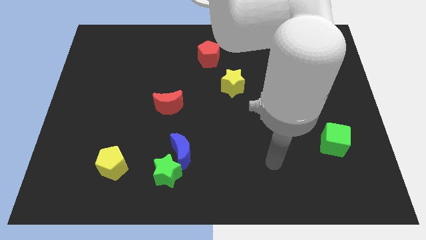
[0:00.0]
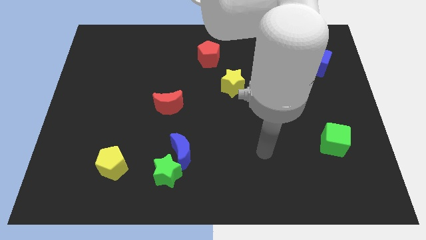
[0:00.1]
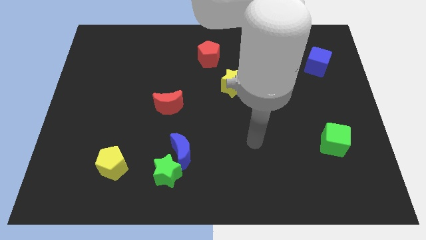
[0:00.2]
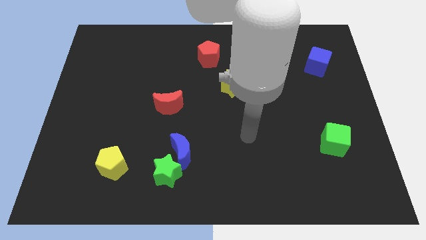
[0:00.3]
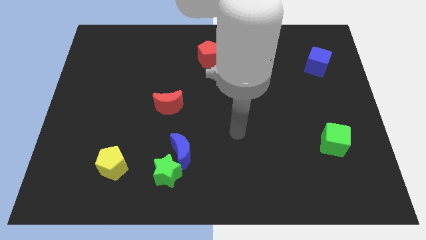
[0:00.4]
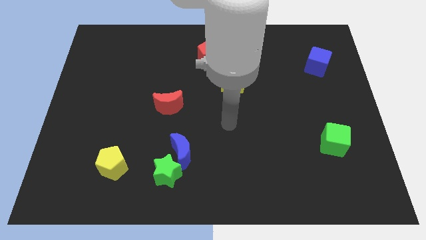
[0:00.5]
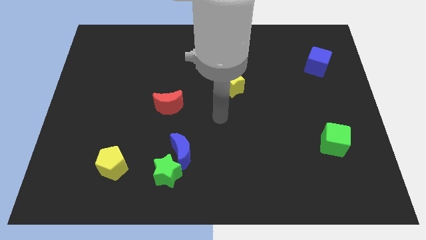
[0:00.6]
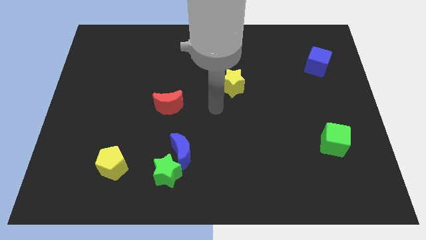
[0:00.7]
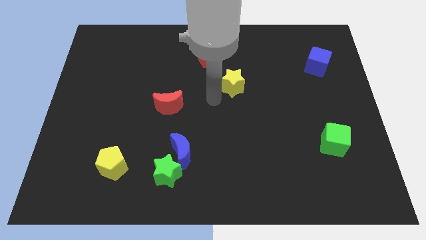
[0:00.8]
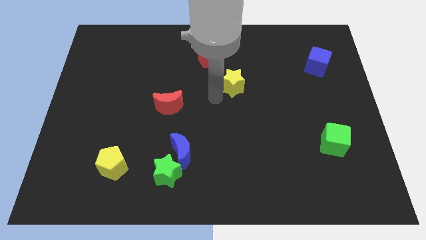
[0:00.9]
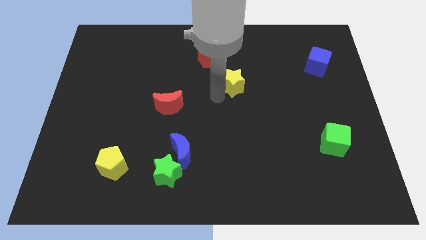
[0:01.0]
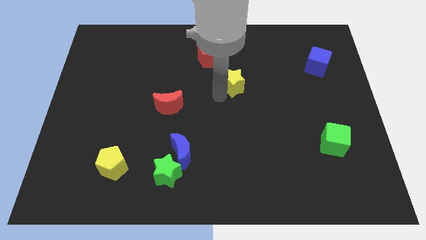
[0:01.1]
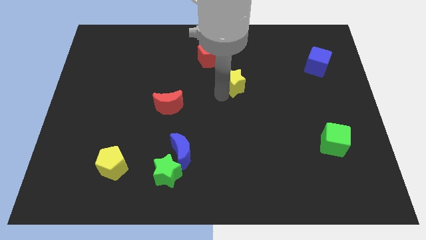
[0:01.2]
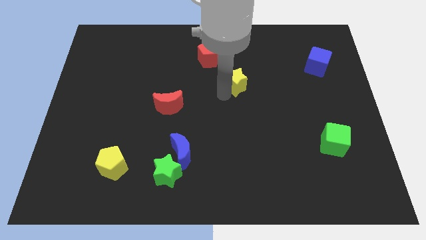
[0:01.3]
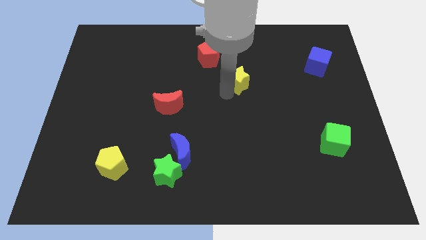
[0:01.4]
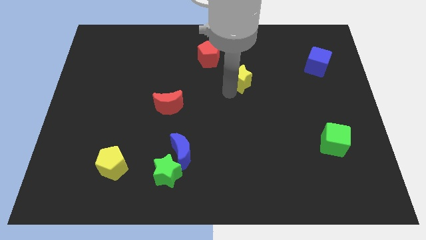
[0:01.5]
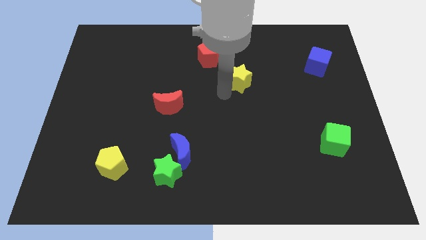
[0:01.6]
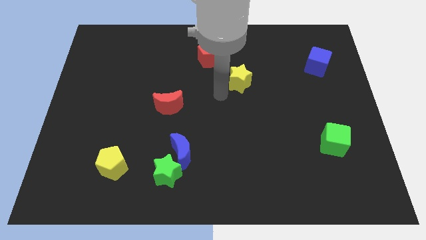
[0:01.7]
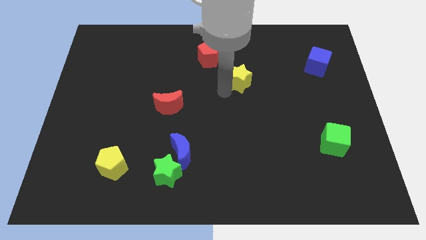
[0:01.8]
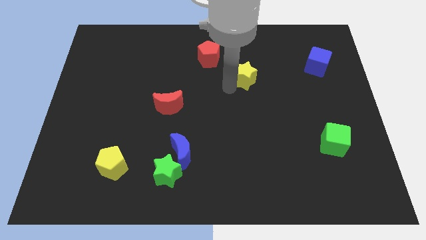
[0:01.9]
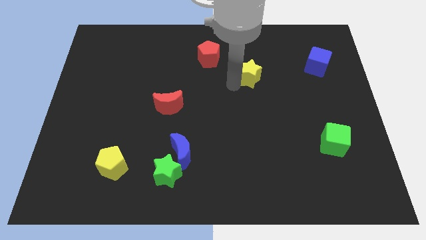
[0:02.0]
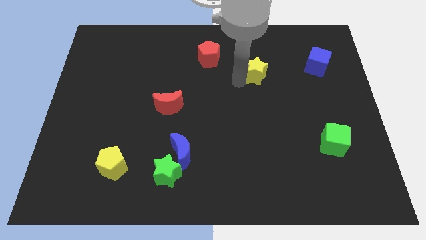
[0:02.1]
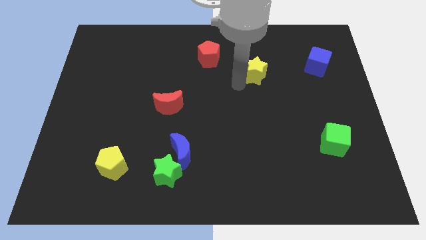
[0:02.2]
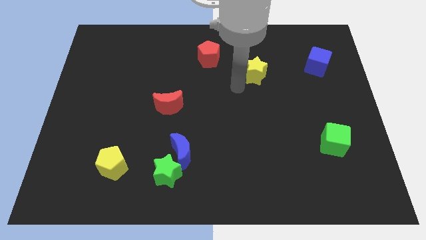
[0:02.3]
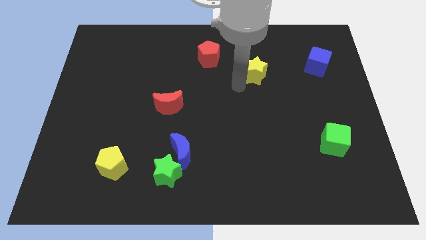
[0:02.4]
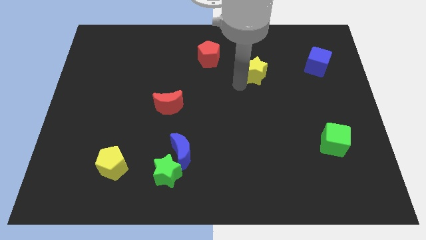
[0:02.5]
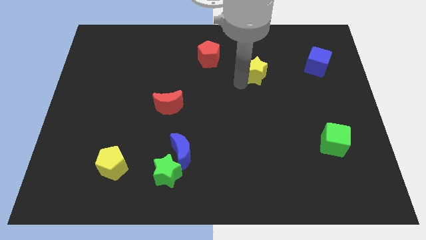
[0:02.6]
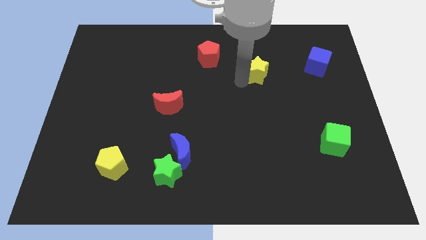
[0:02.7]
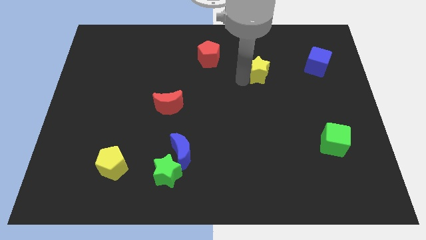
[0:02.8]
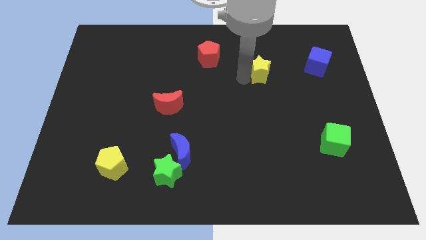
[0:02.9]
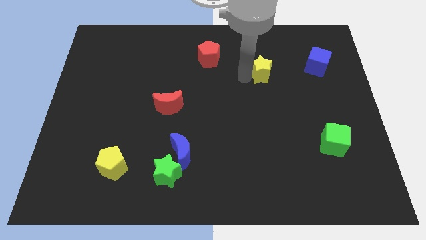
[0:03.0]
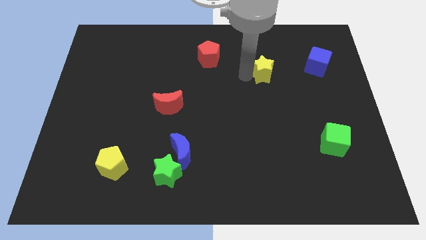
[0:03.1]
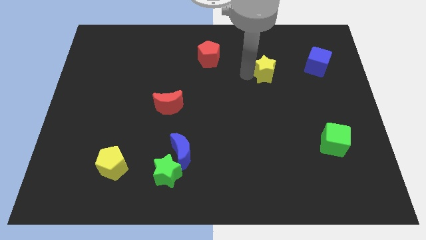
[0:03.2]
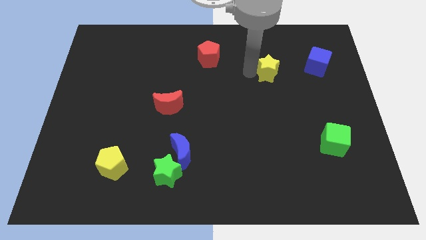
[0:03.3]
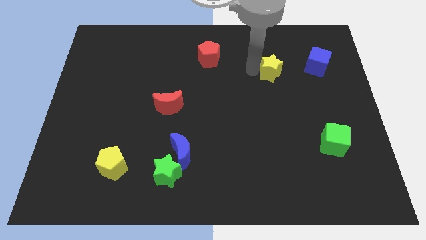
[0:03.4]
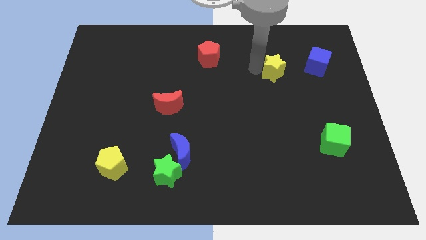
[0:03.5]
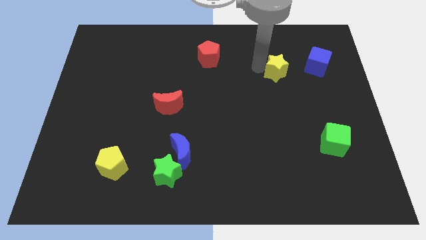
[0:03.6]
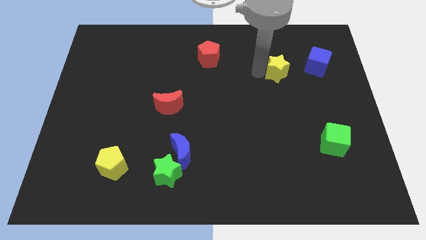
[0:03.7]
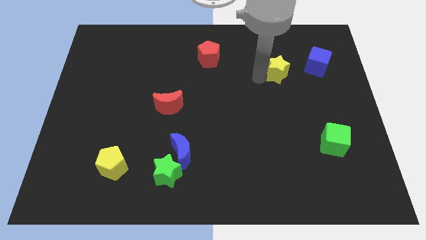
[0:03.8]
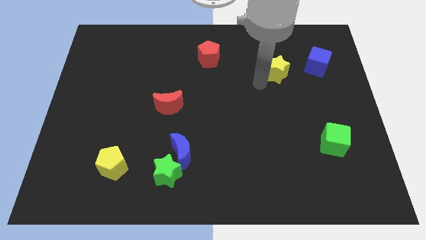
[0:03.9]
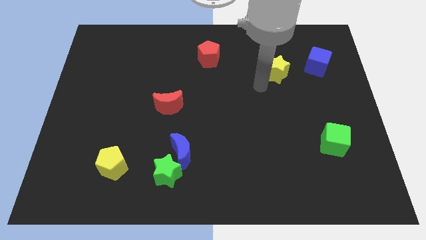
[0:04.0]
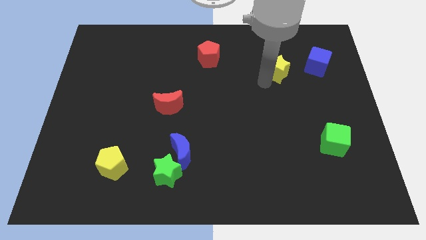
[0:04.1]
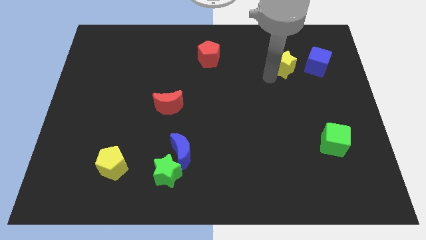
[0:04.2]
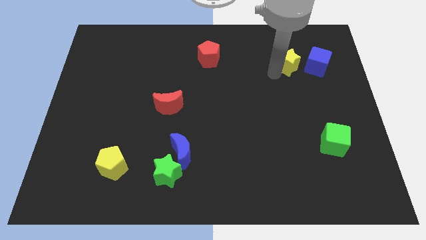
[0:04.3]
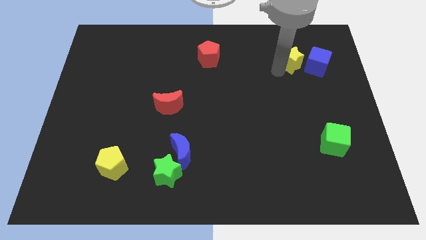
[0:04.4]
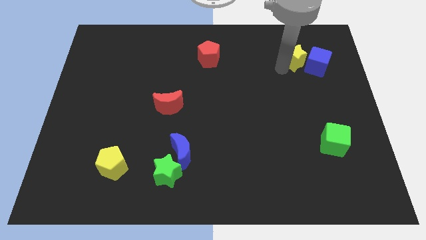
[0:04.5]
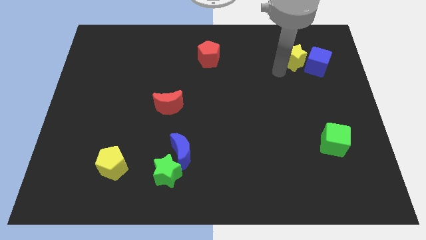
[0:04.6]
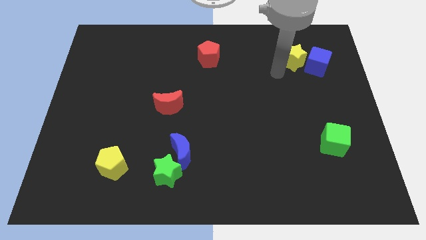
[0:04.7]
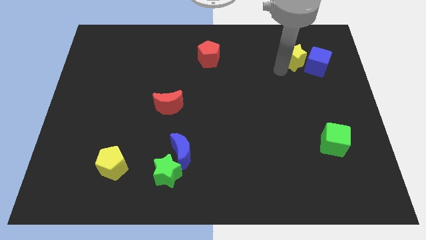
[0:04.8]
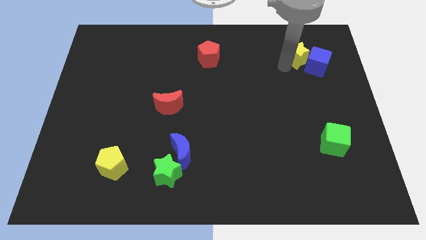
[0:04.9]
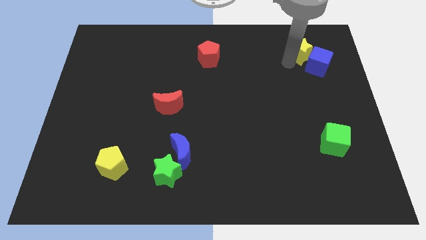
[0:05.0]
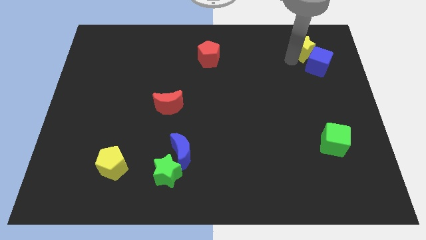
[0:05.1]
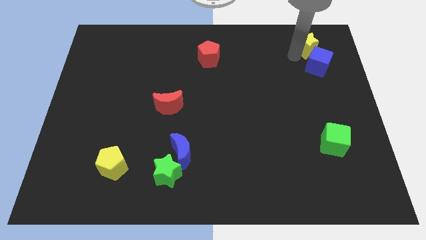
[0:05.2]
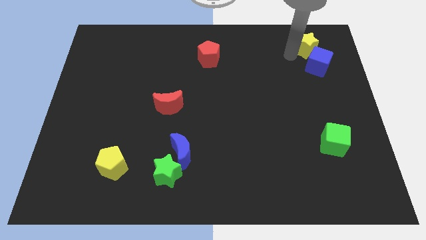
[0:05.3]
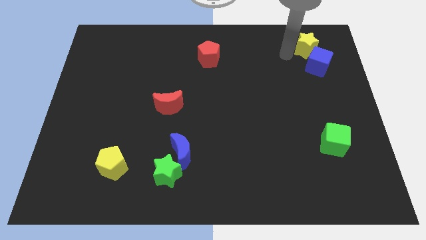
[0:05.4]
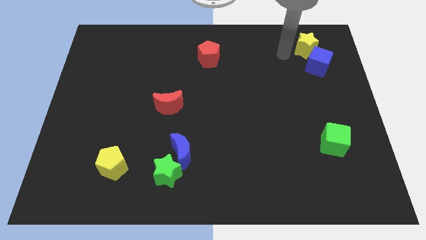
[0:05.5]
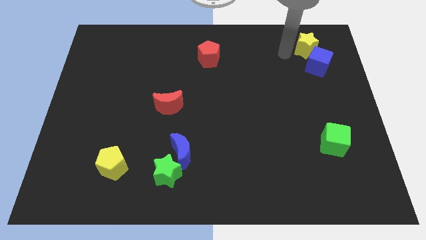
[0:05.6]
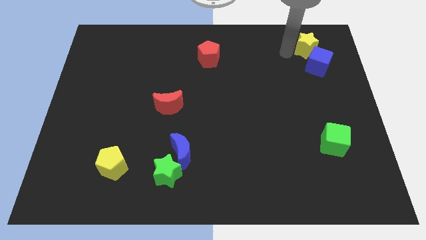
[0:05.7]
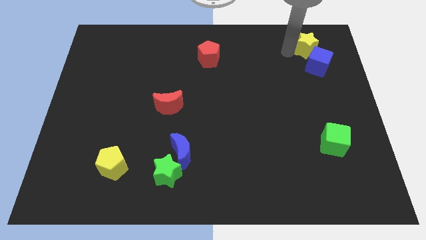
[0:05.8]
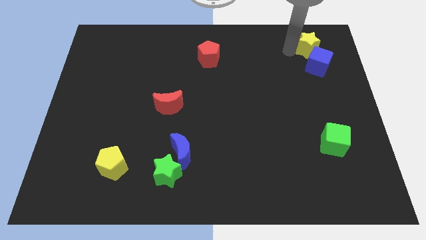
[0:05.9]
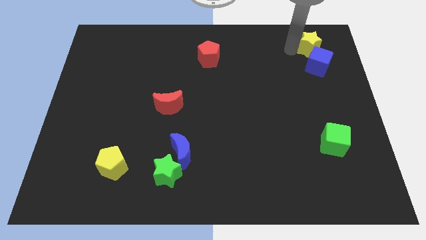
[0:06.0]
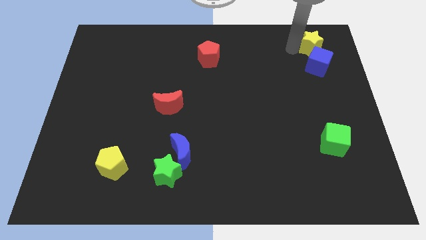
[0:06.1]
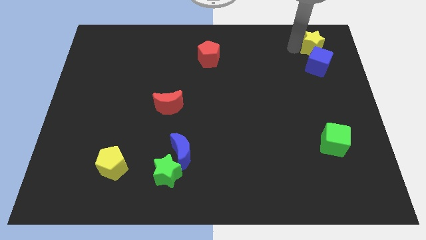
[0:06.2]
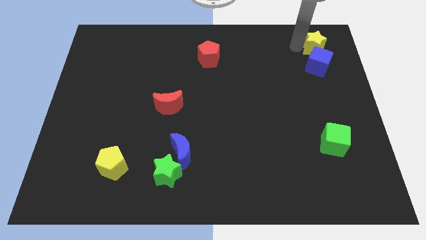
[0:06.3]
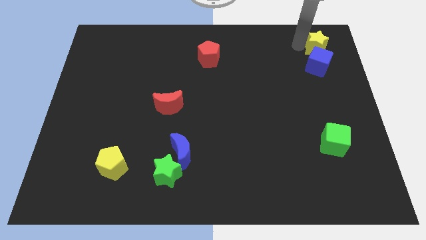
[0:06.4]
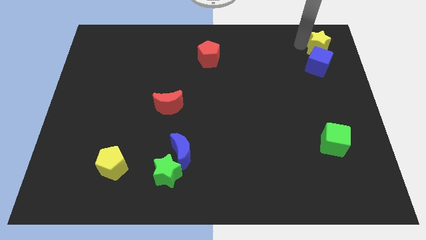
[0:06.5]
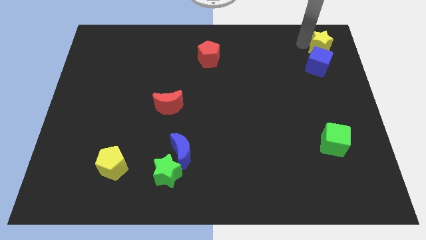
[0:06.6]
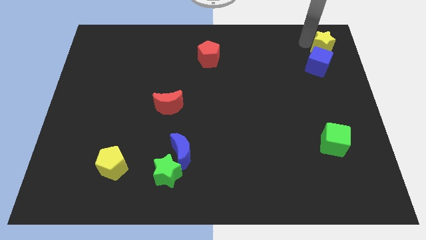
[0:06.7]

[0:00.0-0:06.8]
move the yellow star to the top right
